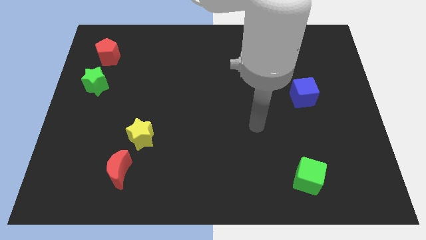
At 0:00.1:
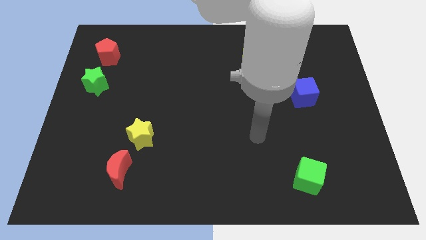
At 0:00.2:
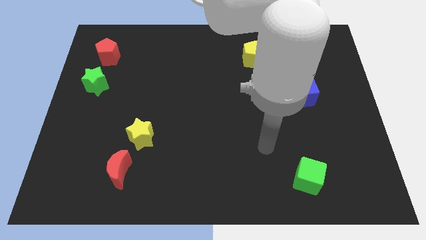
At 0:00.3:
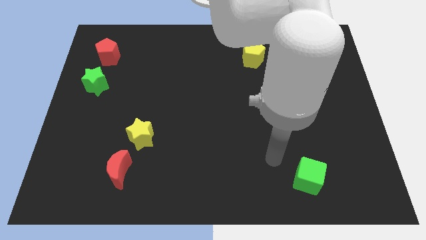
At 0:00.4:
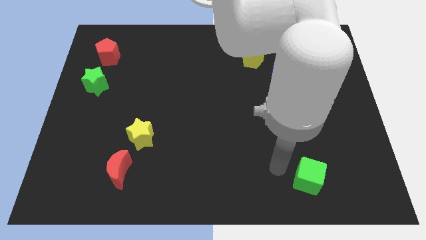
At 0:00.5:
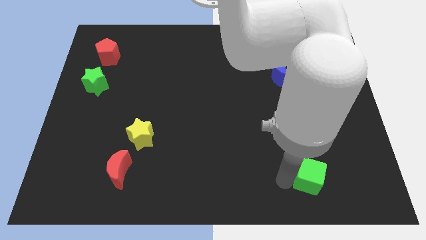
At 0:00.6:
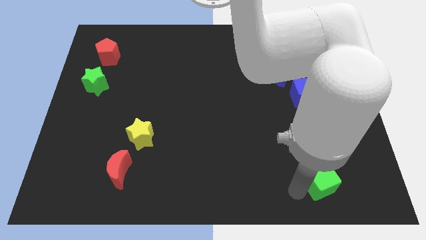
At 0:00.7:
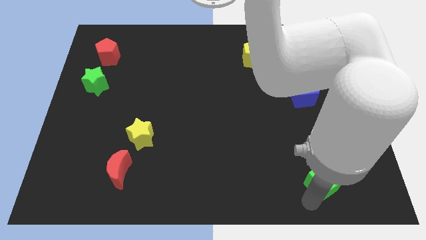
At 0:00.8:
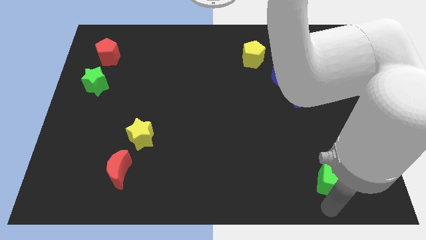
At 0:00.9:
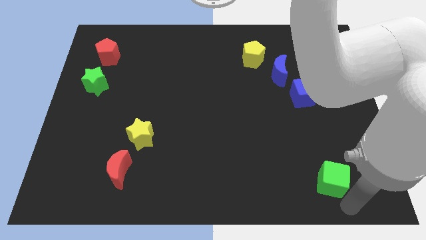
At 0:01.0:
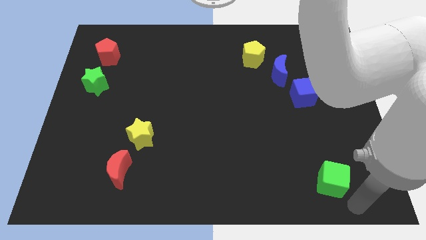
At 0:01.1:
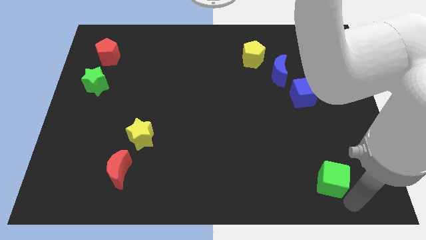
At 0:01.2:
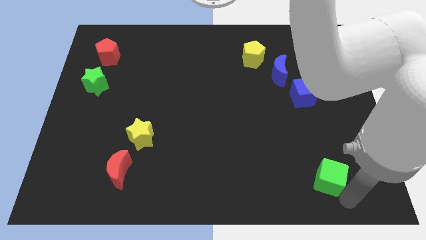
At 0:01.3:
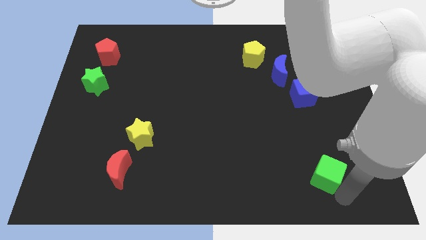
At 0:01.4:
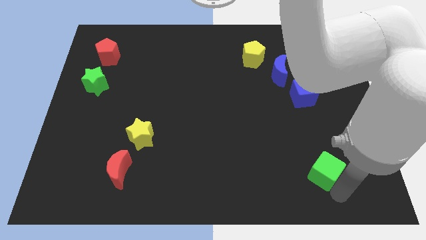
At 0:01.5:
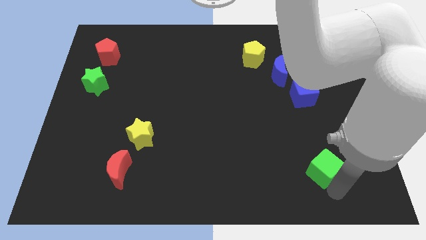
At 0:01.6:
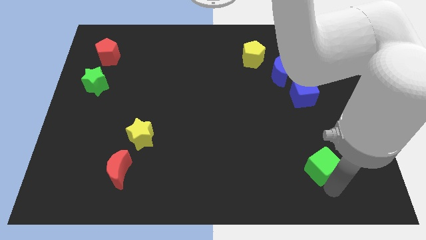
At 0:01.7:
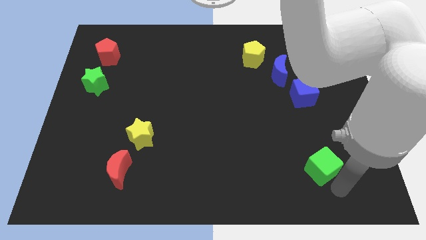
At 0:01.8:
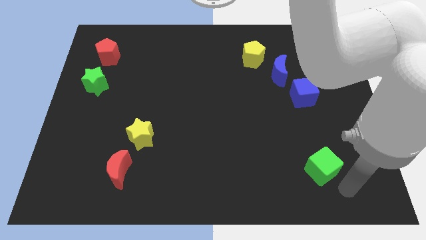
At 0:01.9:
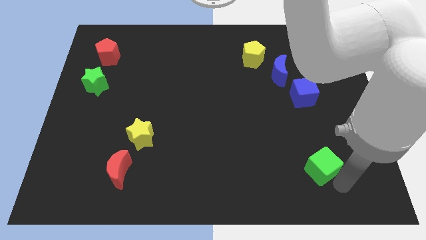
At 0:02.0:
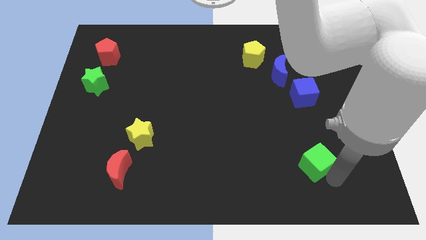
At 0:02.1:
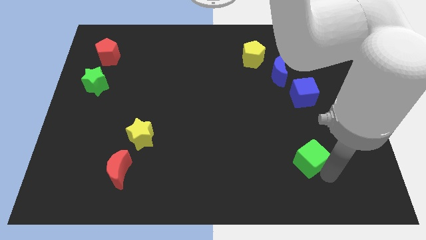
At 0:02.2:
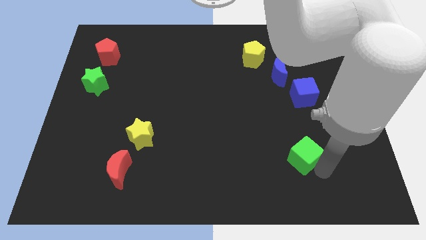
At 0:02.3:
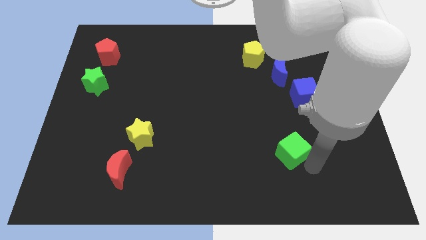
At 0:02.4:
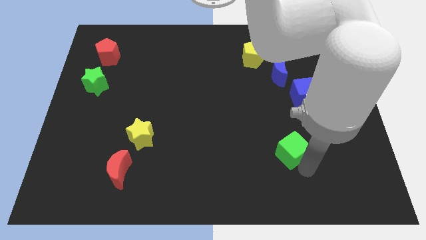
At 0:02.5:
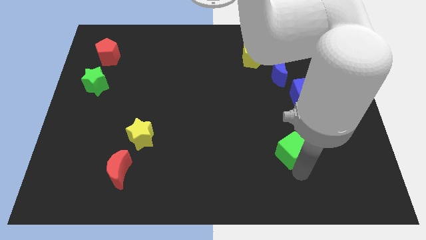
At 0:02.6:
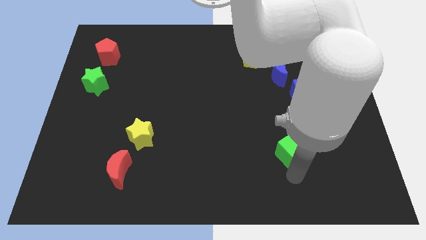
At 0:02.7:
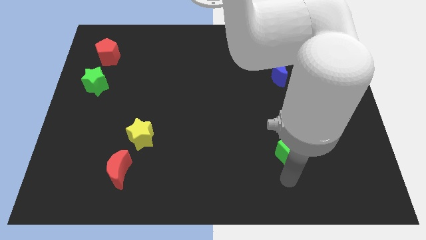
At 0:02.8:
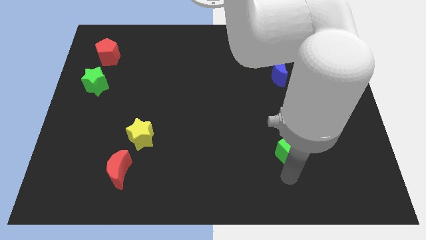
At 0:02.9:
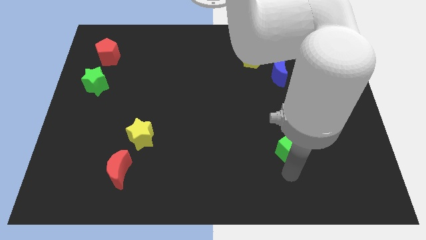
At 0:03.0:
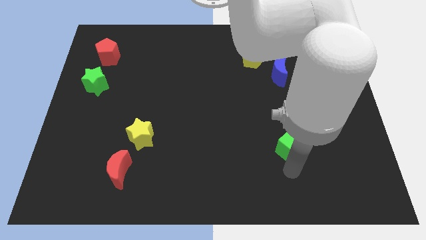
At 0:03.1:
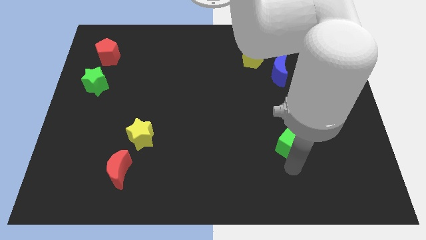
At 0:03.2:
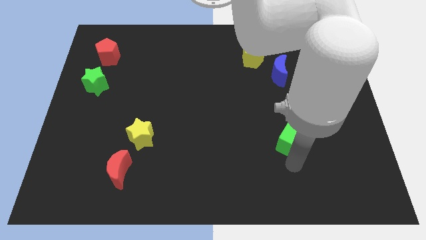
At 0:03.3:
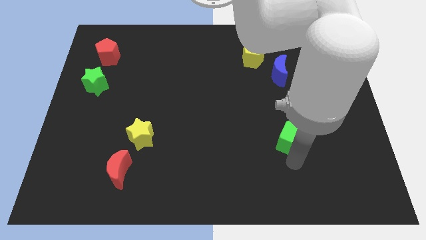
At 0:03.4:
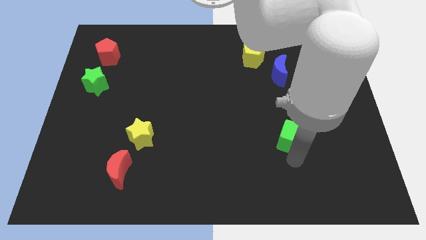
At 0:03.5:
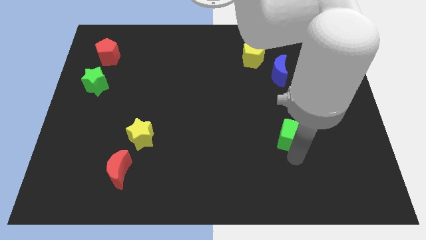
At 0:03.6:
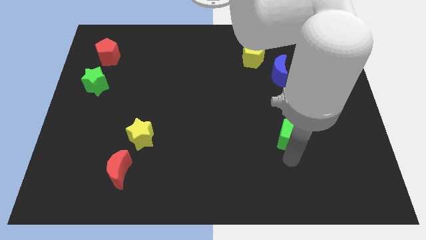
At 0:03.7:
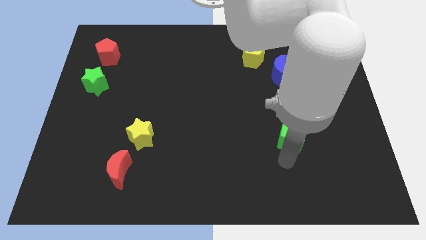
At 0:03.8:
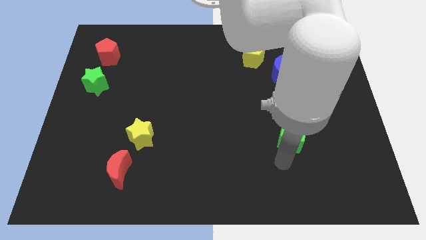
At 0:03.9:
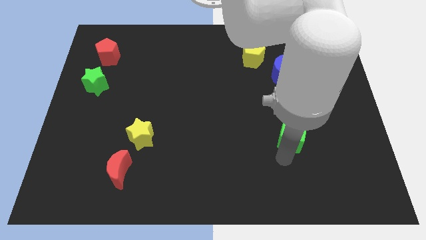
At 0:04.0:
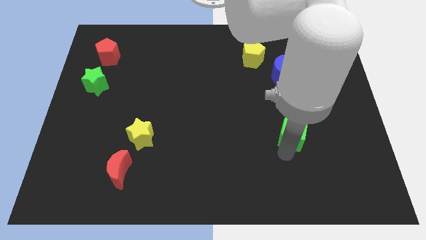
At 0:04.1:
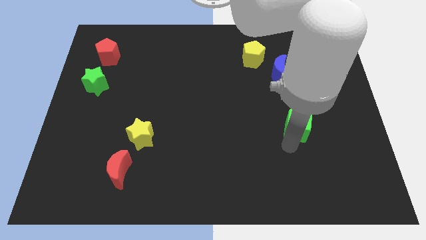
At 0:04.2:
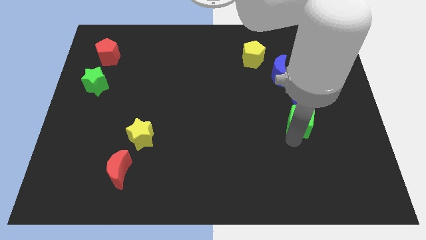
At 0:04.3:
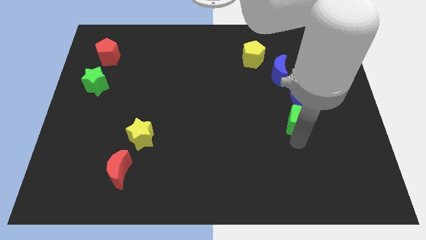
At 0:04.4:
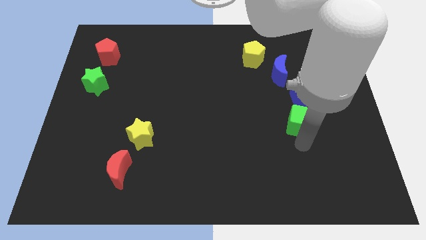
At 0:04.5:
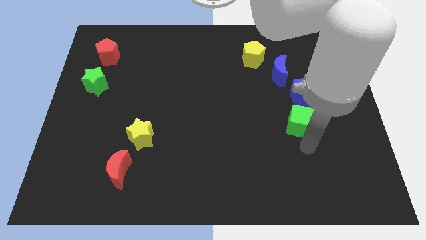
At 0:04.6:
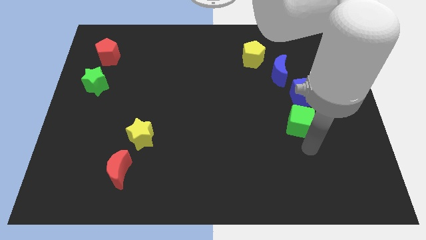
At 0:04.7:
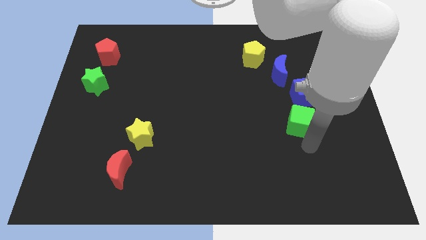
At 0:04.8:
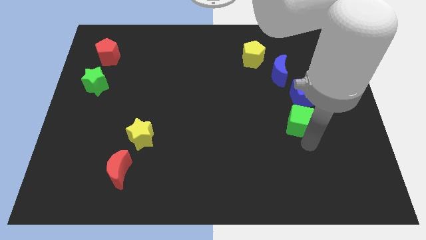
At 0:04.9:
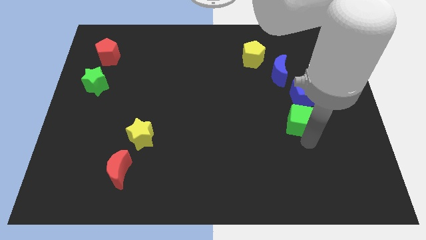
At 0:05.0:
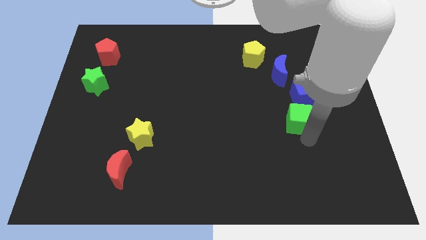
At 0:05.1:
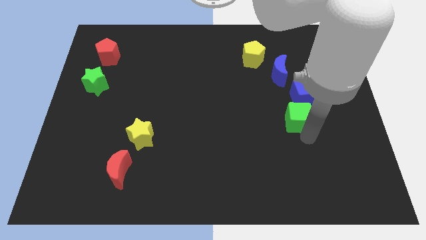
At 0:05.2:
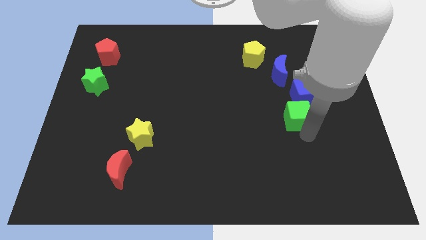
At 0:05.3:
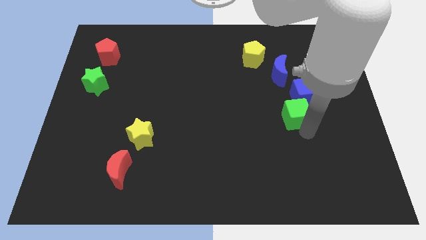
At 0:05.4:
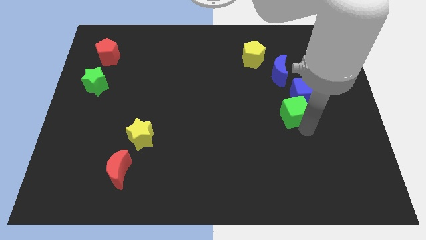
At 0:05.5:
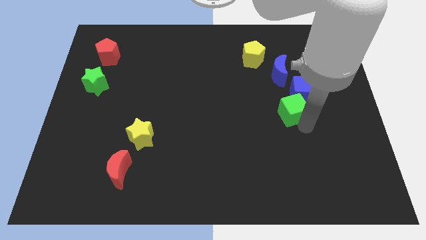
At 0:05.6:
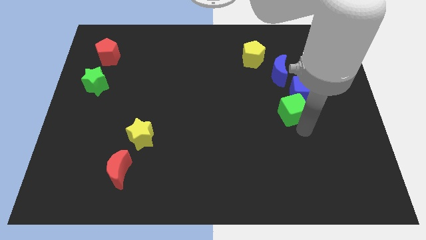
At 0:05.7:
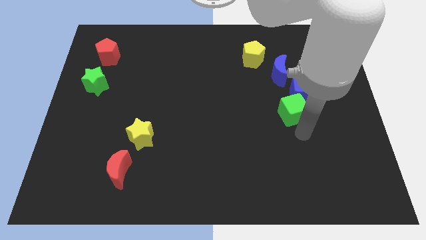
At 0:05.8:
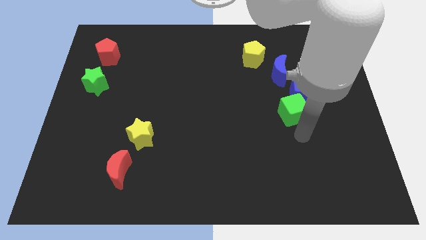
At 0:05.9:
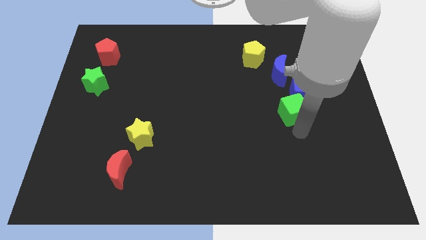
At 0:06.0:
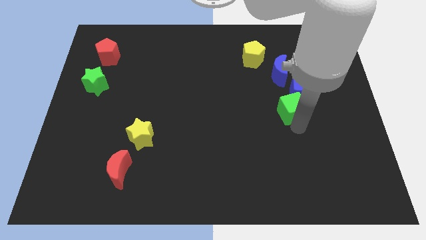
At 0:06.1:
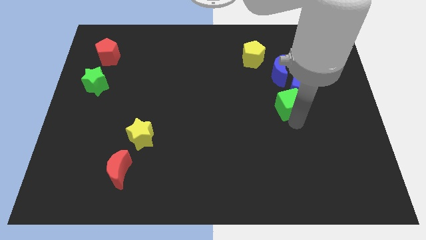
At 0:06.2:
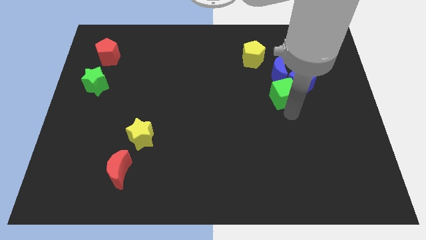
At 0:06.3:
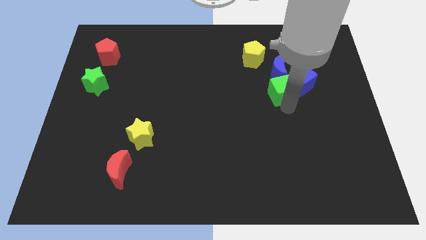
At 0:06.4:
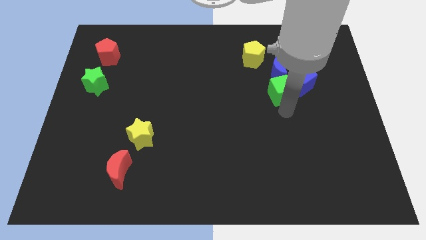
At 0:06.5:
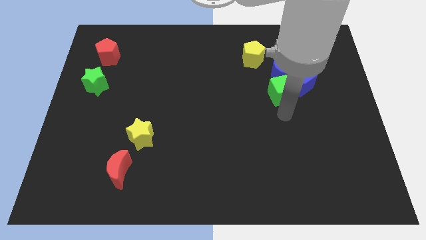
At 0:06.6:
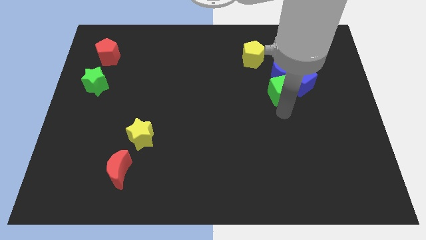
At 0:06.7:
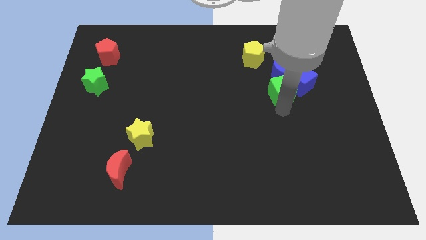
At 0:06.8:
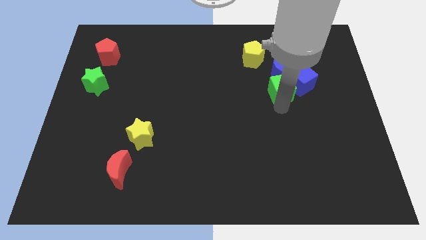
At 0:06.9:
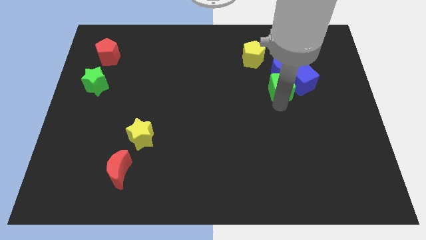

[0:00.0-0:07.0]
put the green cube next to the blue moon

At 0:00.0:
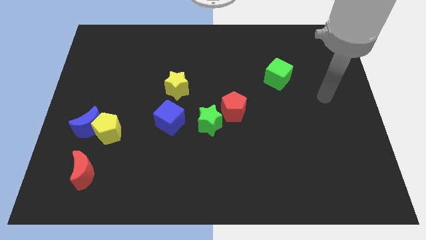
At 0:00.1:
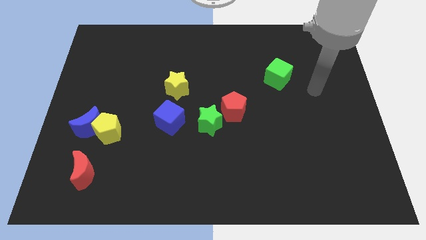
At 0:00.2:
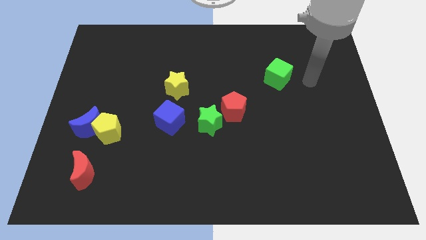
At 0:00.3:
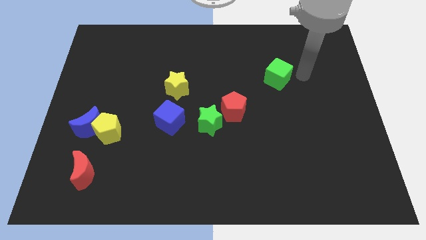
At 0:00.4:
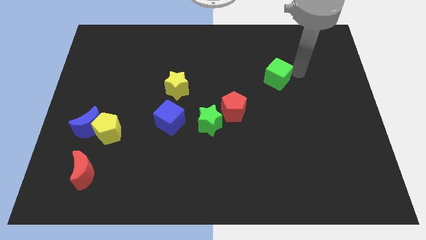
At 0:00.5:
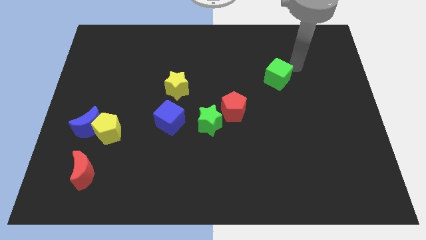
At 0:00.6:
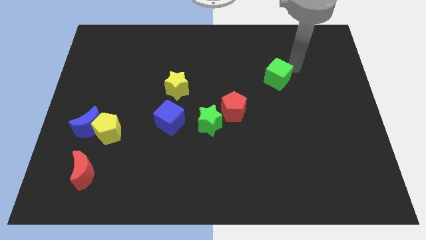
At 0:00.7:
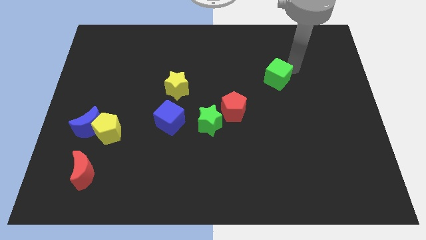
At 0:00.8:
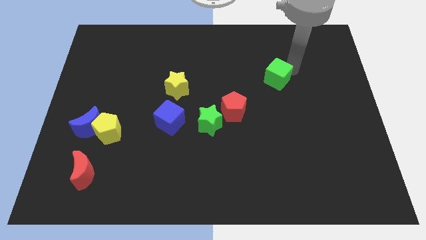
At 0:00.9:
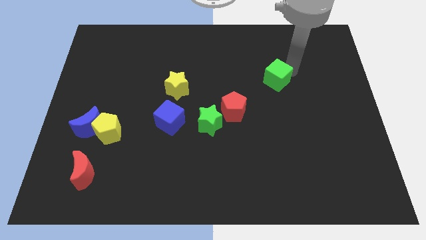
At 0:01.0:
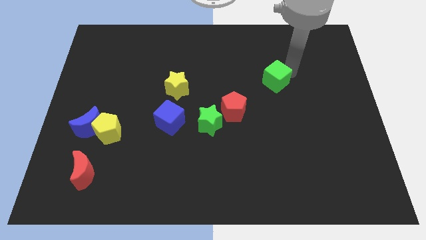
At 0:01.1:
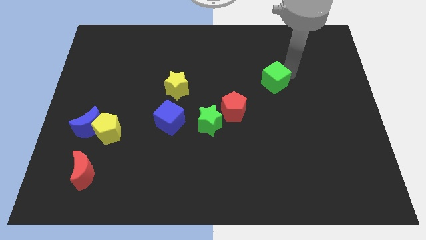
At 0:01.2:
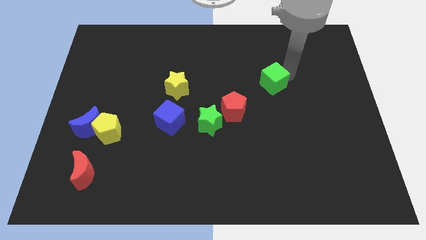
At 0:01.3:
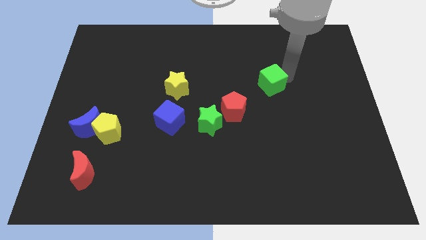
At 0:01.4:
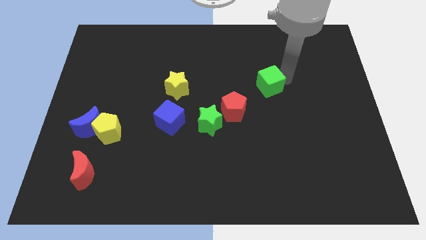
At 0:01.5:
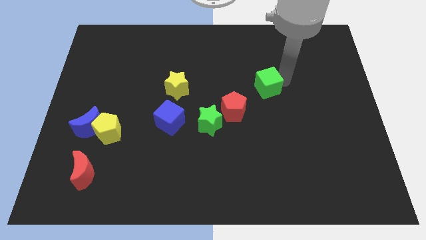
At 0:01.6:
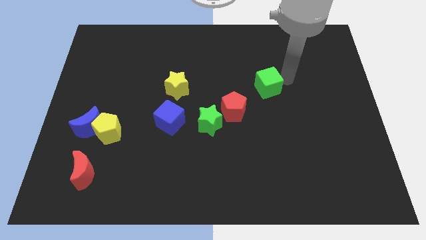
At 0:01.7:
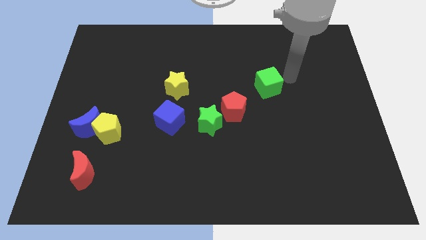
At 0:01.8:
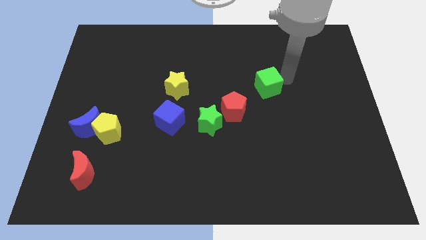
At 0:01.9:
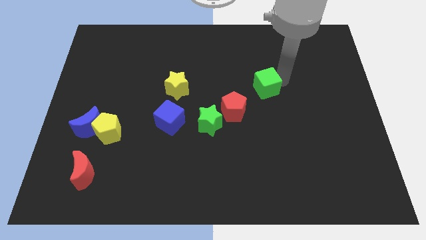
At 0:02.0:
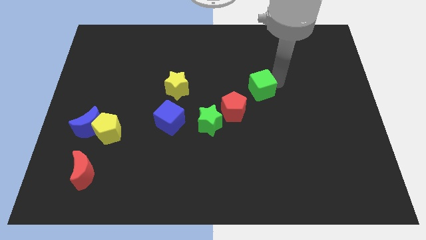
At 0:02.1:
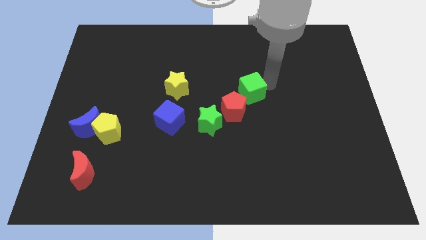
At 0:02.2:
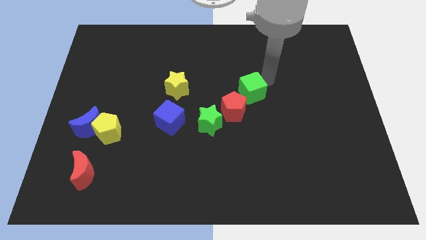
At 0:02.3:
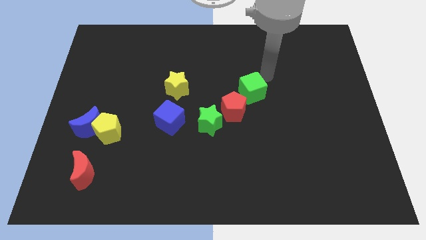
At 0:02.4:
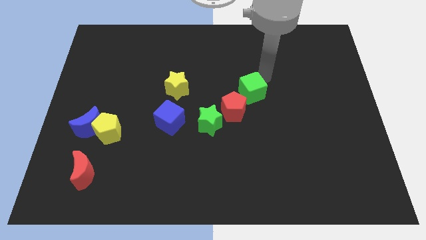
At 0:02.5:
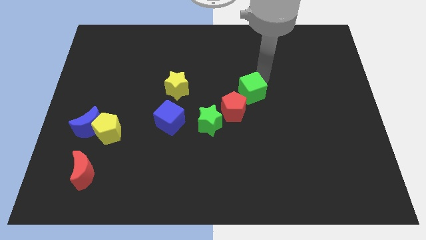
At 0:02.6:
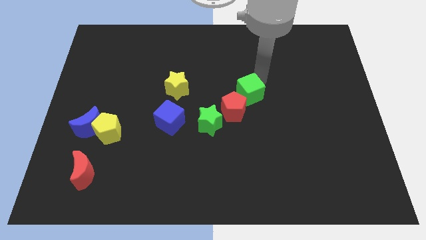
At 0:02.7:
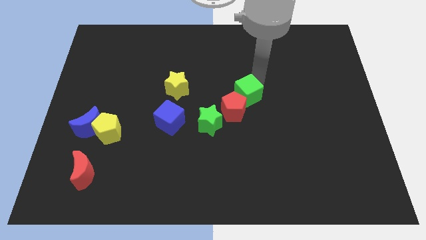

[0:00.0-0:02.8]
put the green cube towards the red pentagon
